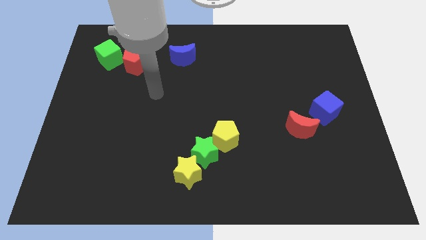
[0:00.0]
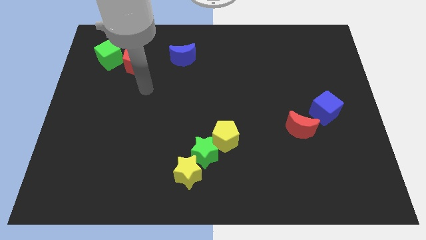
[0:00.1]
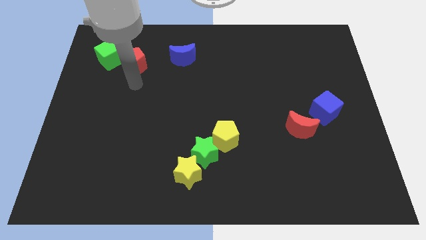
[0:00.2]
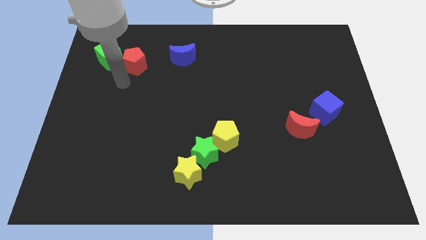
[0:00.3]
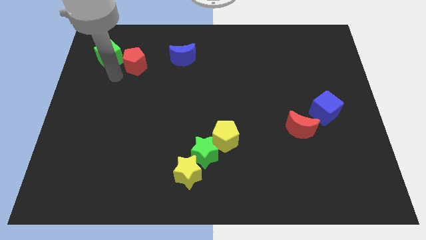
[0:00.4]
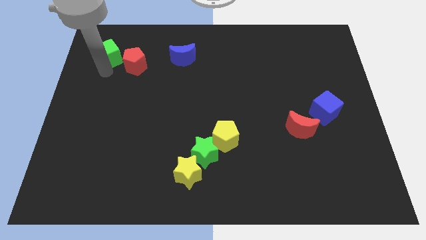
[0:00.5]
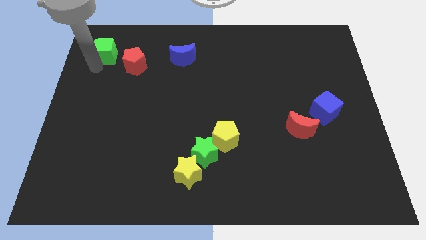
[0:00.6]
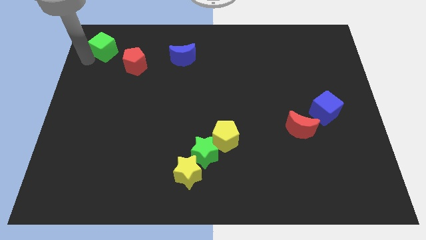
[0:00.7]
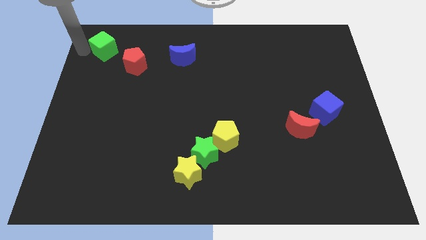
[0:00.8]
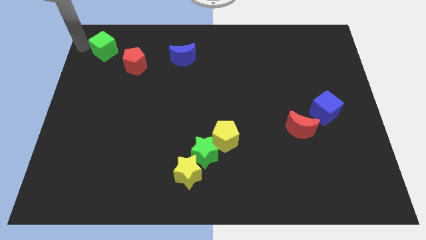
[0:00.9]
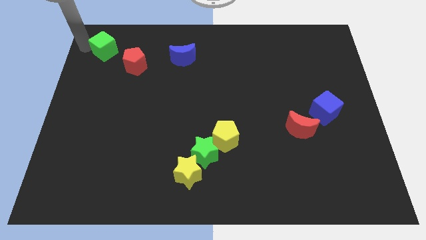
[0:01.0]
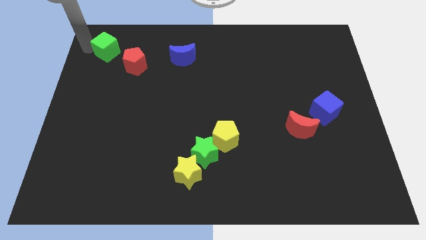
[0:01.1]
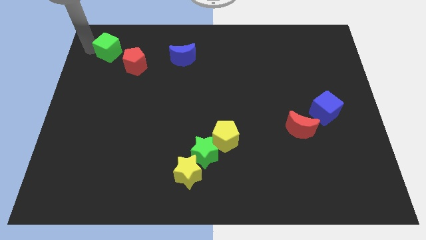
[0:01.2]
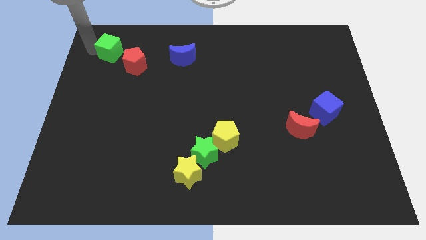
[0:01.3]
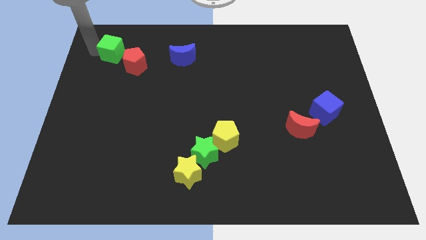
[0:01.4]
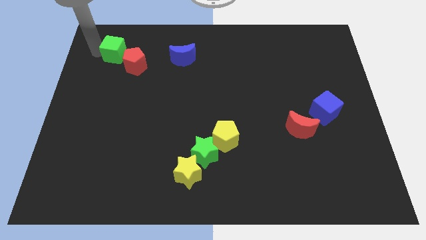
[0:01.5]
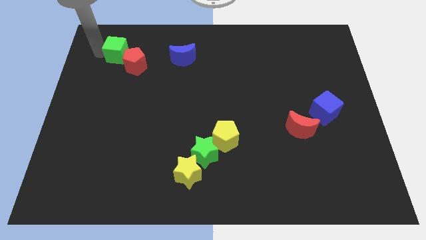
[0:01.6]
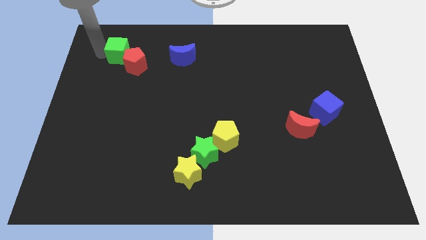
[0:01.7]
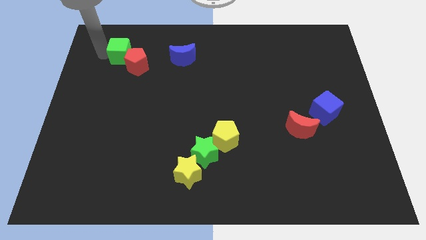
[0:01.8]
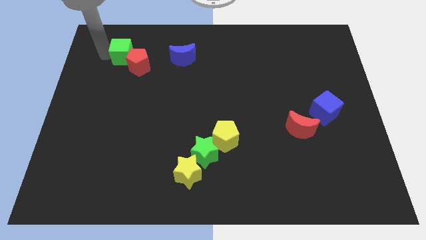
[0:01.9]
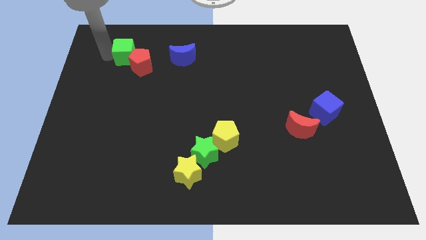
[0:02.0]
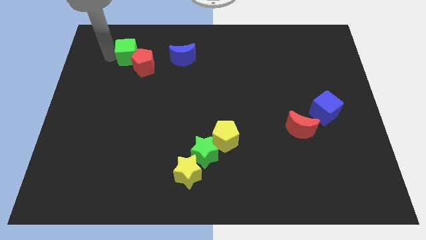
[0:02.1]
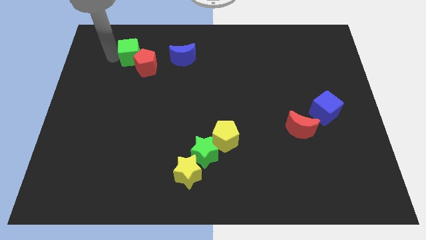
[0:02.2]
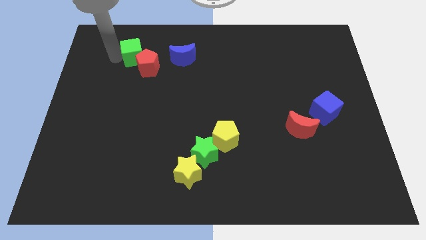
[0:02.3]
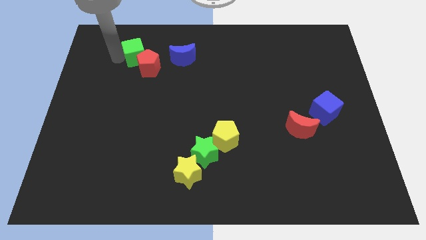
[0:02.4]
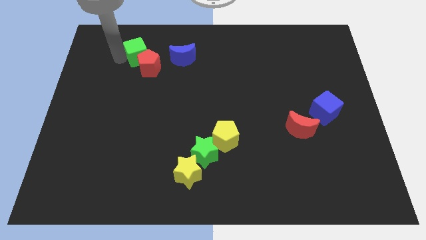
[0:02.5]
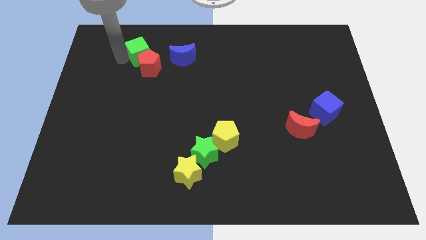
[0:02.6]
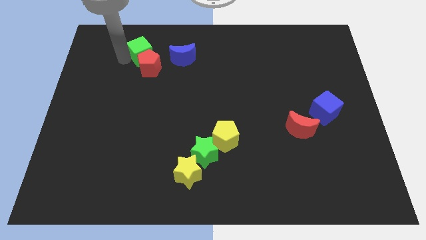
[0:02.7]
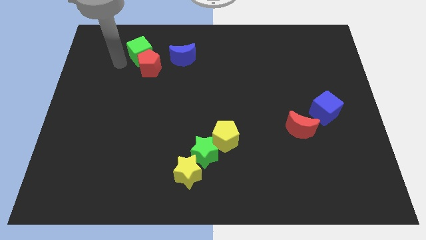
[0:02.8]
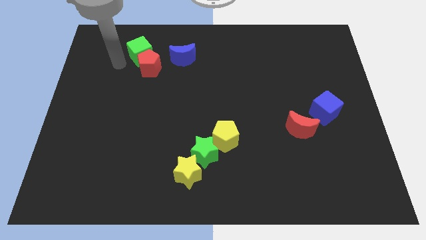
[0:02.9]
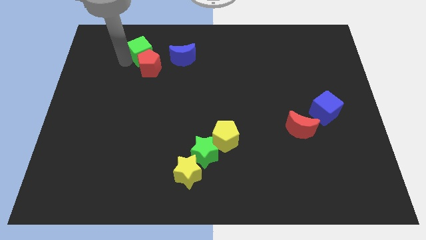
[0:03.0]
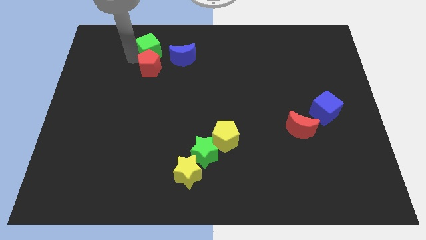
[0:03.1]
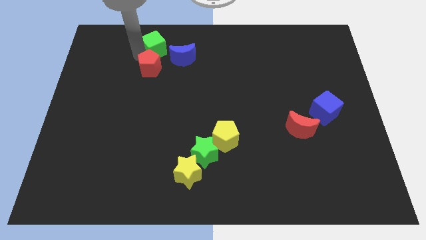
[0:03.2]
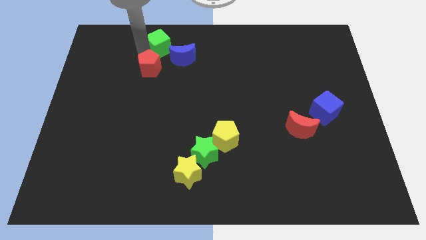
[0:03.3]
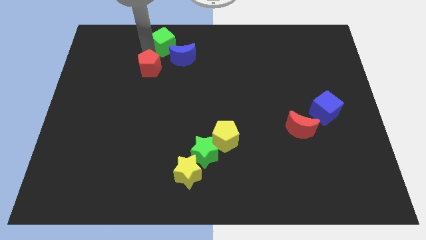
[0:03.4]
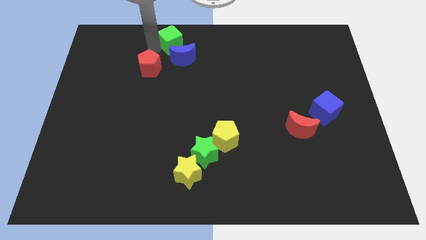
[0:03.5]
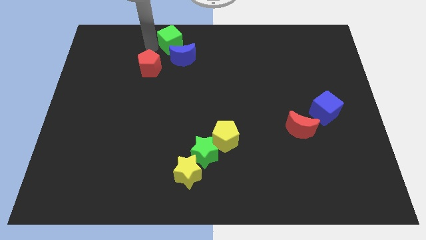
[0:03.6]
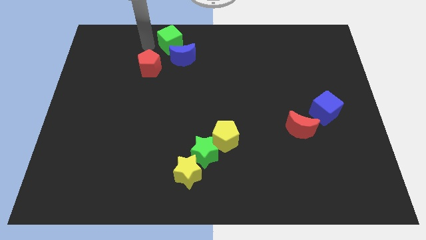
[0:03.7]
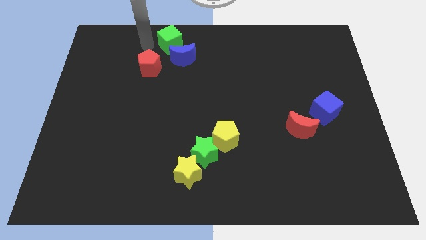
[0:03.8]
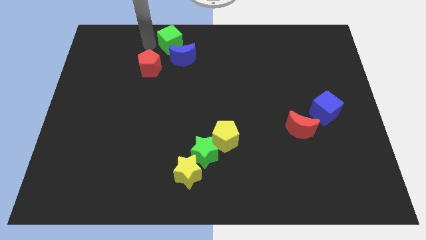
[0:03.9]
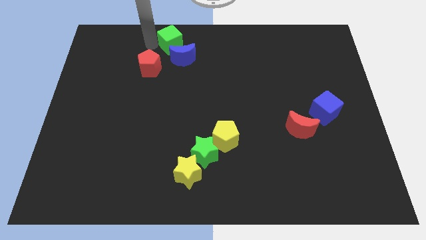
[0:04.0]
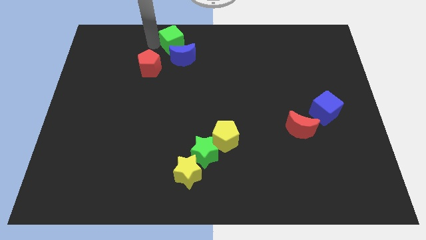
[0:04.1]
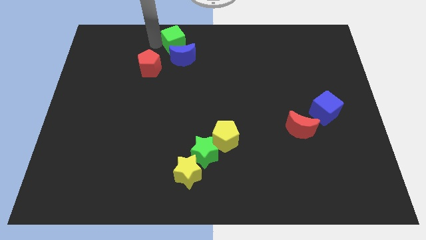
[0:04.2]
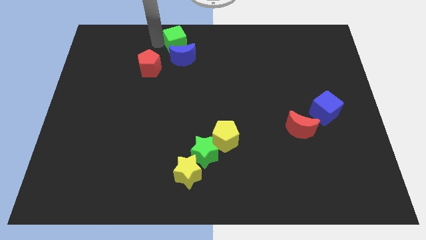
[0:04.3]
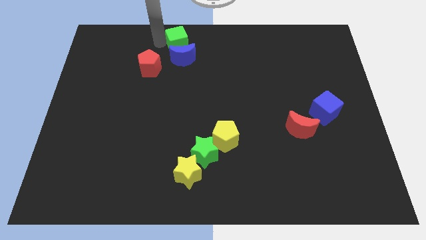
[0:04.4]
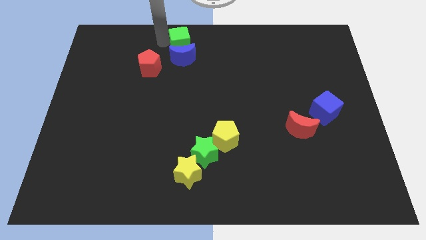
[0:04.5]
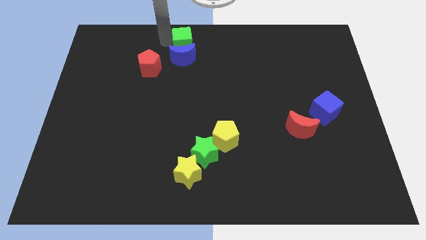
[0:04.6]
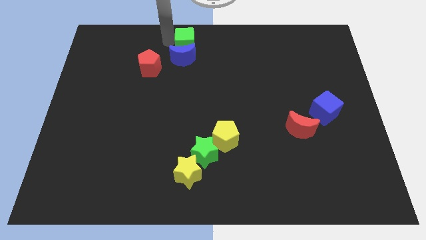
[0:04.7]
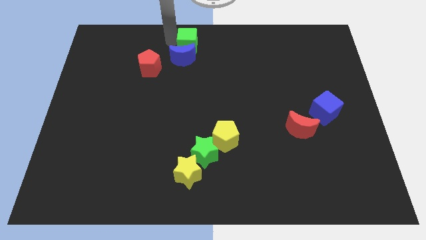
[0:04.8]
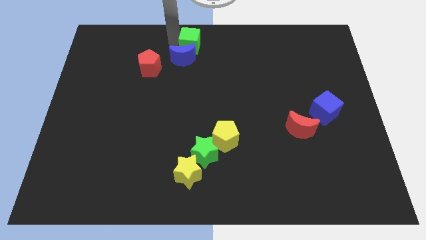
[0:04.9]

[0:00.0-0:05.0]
move the green cube to the right

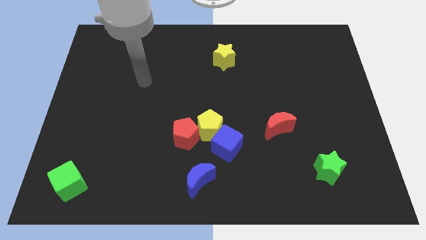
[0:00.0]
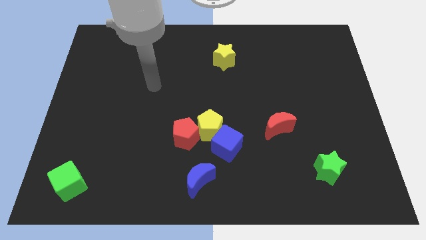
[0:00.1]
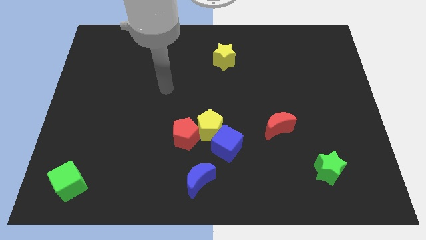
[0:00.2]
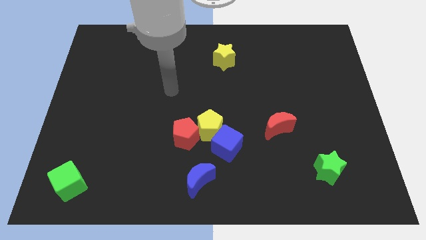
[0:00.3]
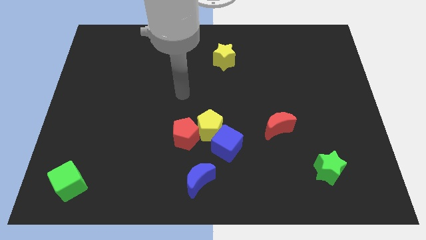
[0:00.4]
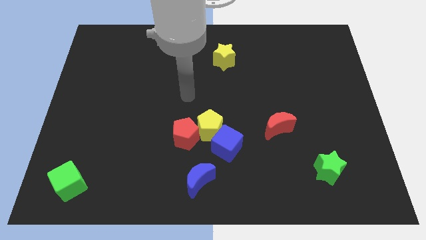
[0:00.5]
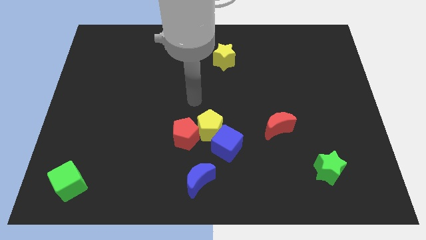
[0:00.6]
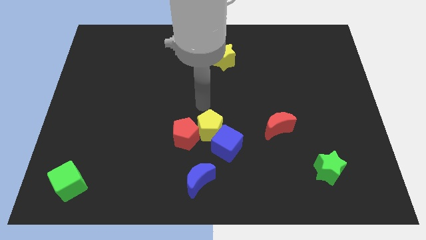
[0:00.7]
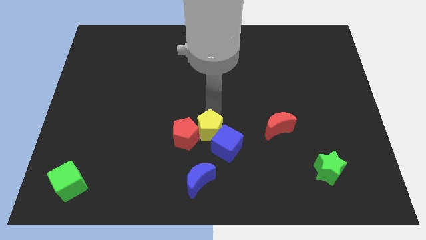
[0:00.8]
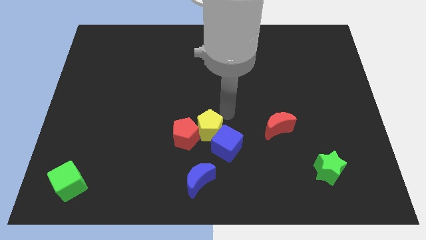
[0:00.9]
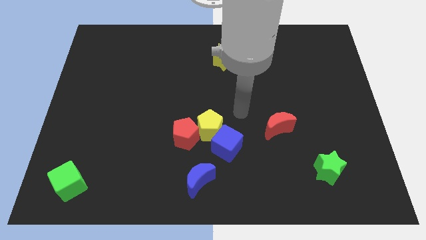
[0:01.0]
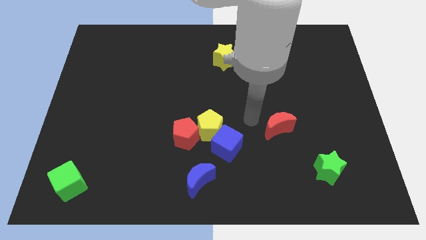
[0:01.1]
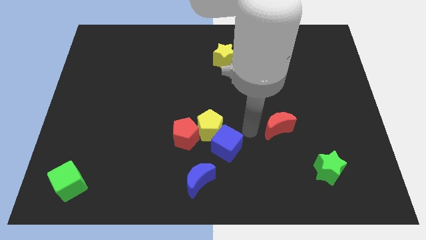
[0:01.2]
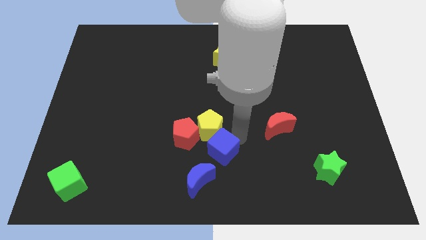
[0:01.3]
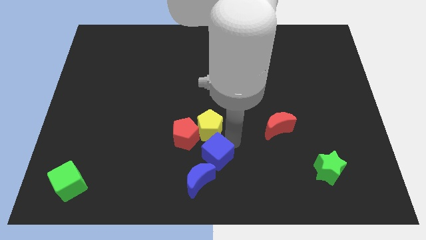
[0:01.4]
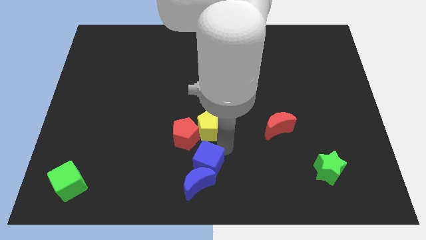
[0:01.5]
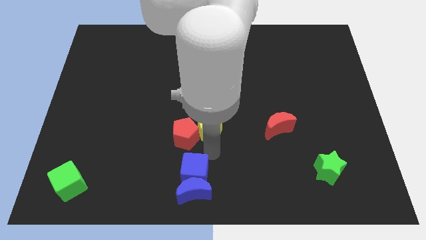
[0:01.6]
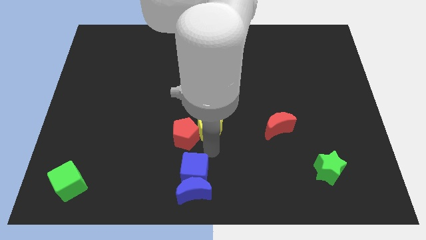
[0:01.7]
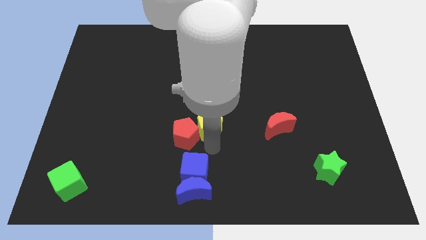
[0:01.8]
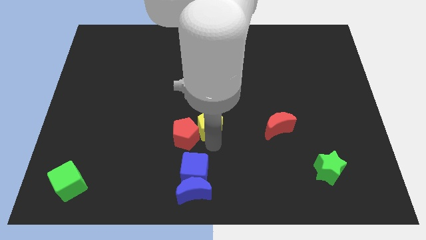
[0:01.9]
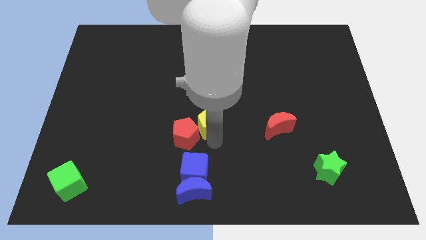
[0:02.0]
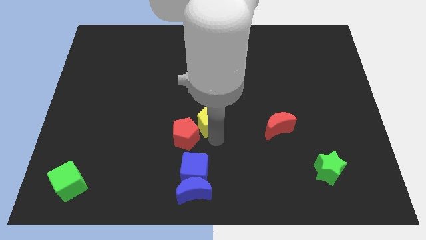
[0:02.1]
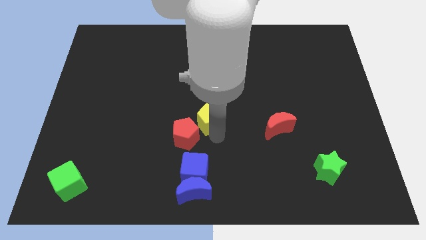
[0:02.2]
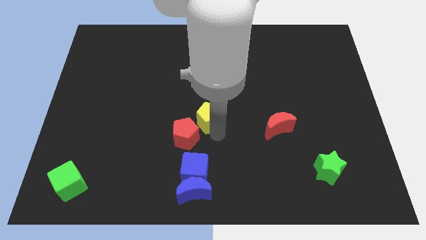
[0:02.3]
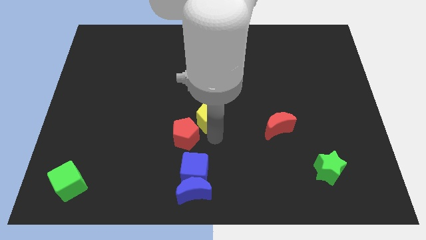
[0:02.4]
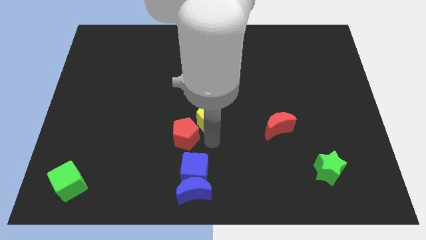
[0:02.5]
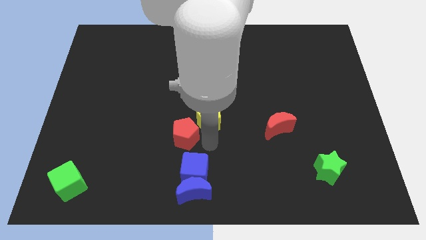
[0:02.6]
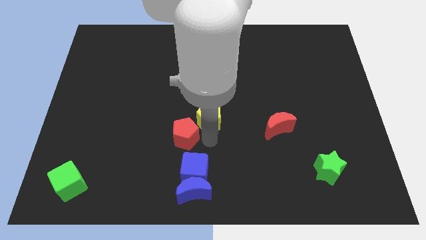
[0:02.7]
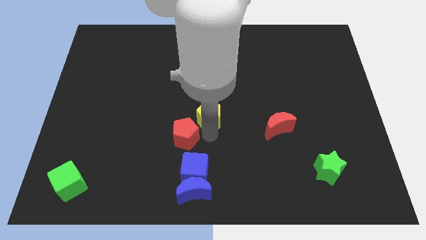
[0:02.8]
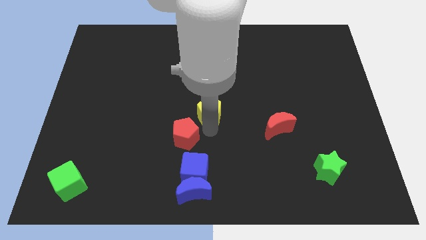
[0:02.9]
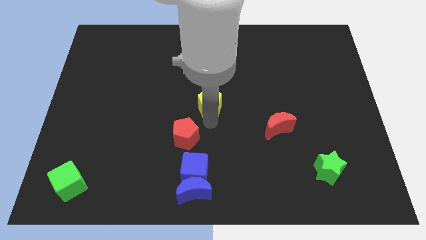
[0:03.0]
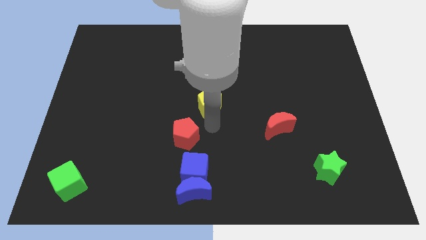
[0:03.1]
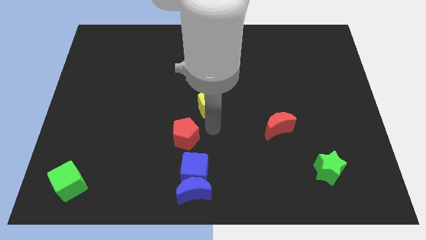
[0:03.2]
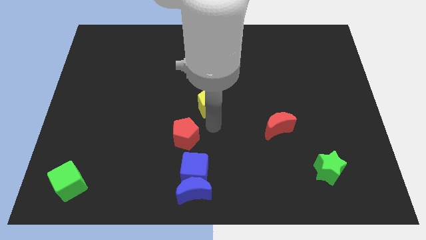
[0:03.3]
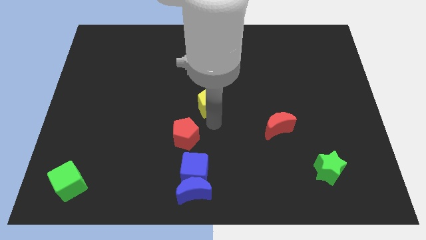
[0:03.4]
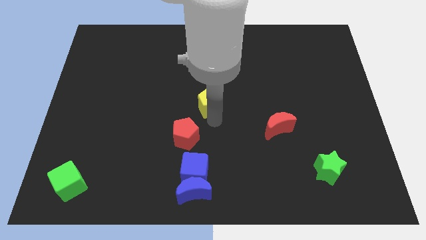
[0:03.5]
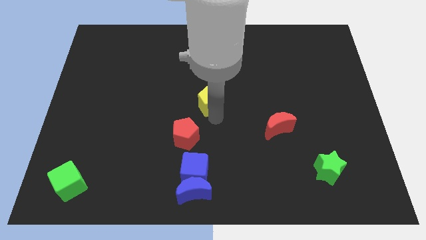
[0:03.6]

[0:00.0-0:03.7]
slightly move the yellow pentagon upwards
